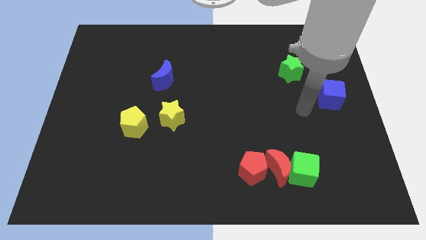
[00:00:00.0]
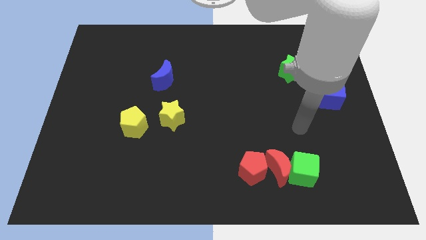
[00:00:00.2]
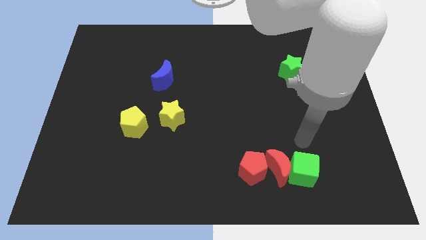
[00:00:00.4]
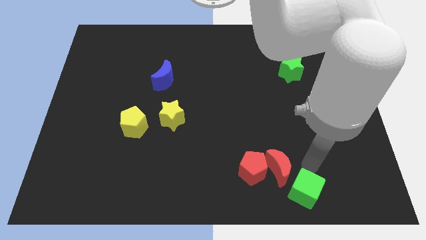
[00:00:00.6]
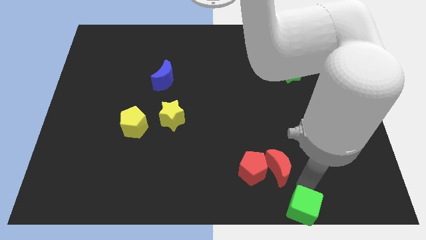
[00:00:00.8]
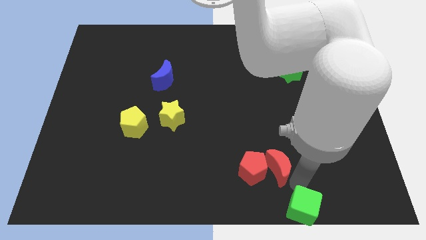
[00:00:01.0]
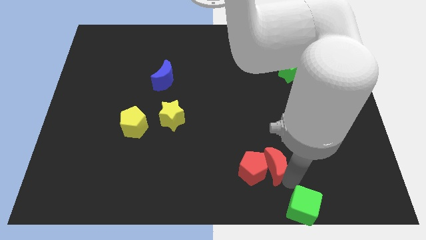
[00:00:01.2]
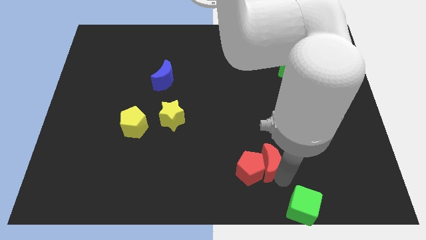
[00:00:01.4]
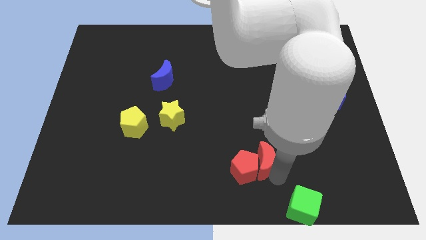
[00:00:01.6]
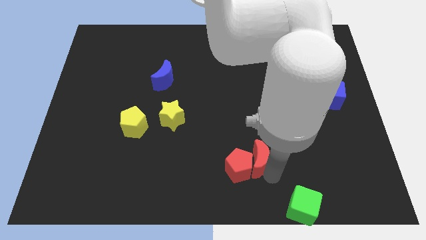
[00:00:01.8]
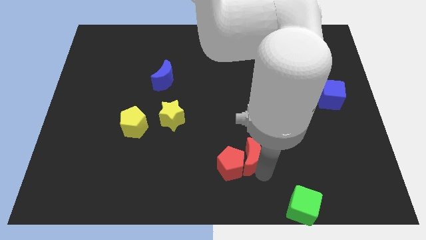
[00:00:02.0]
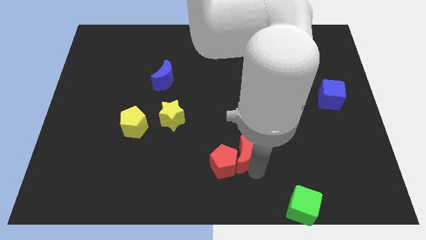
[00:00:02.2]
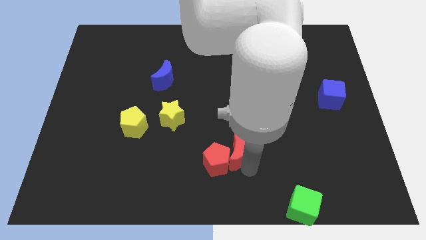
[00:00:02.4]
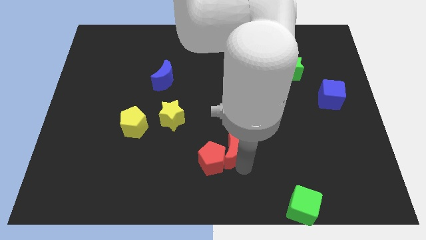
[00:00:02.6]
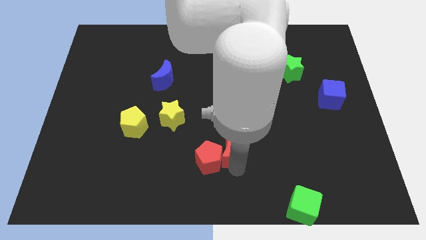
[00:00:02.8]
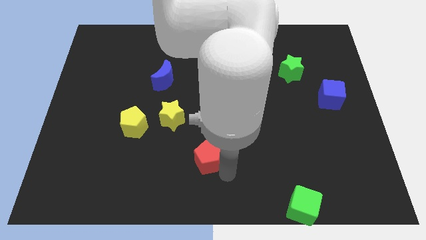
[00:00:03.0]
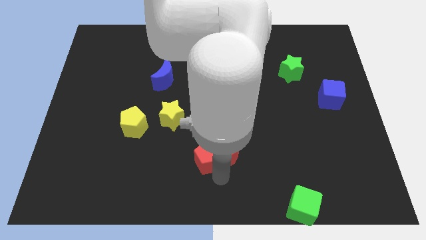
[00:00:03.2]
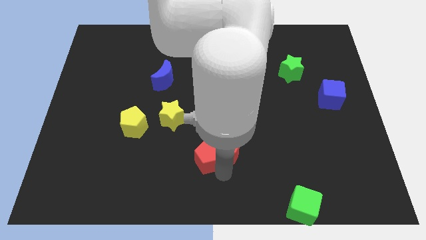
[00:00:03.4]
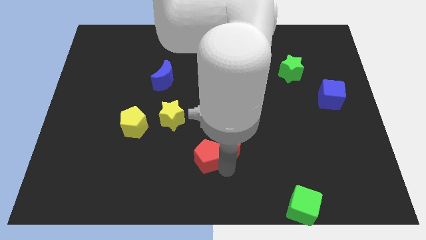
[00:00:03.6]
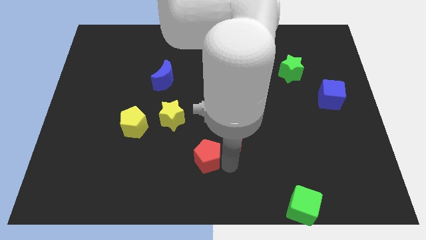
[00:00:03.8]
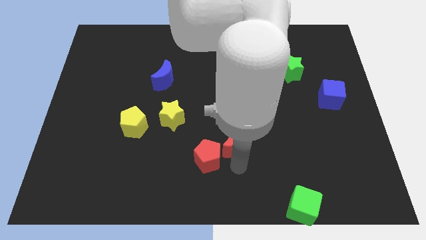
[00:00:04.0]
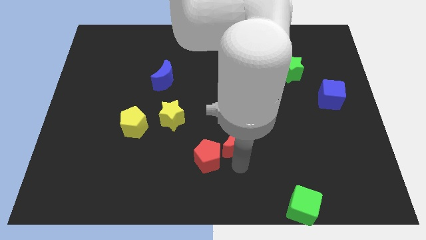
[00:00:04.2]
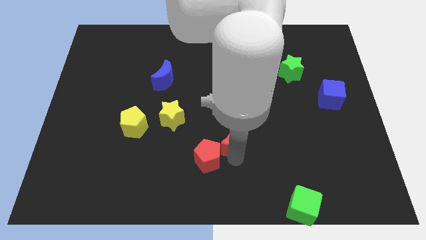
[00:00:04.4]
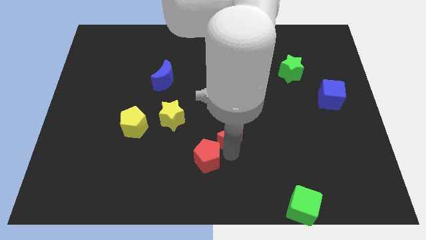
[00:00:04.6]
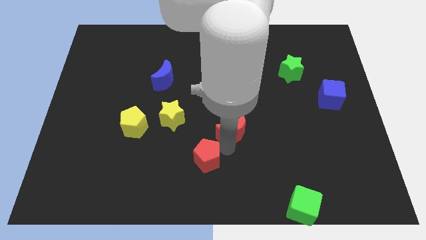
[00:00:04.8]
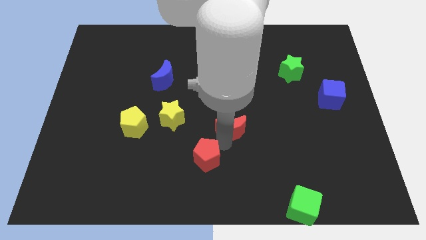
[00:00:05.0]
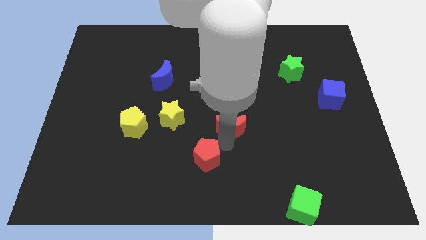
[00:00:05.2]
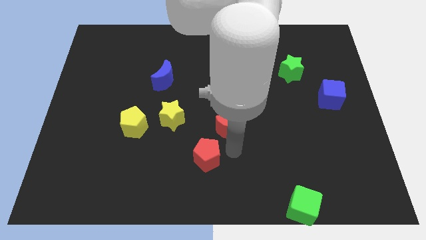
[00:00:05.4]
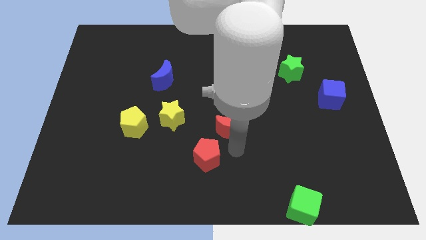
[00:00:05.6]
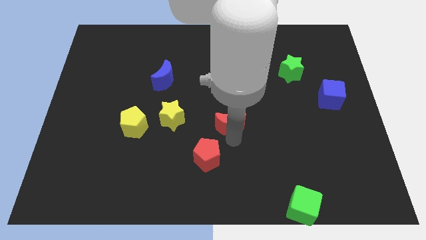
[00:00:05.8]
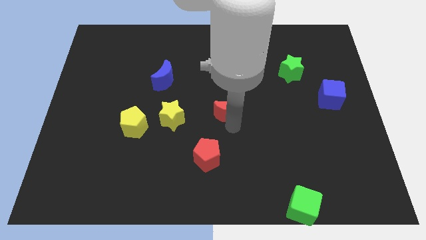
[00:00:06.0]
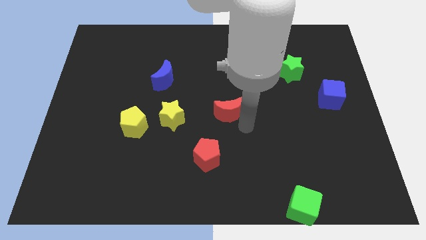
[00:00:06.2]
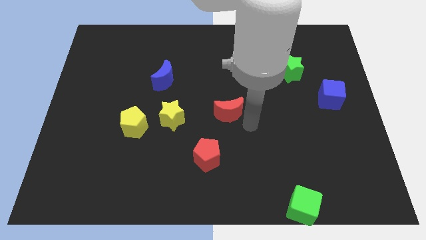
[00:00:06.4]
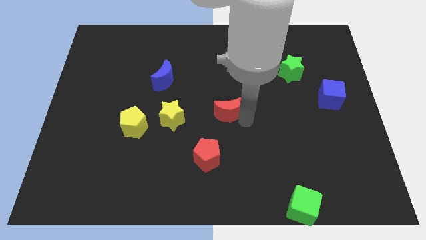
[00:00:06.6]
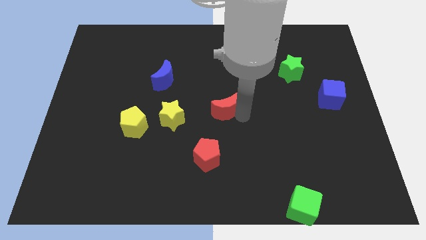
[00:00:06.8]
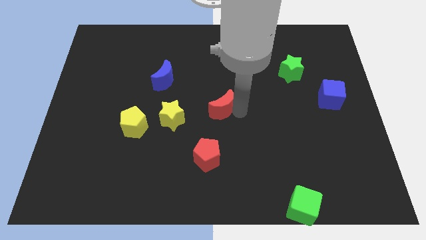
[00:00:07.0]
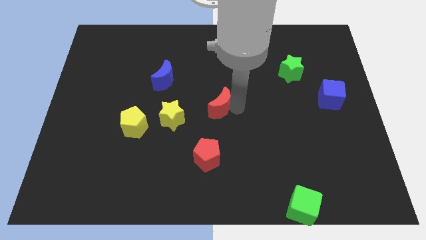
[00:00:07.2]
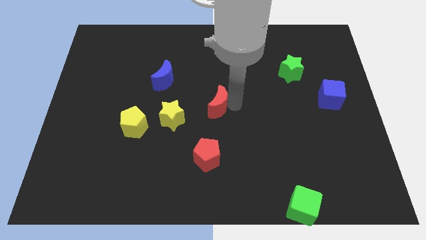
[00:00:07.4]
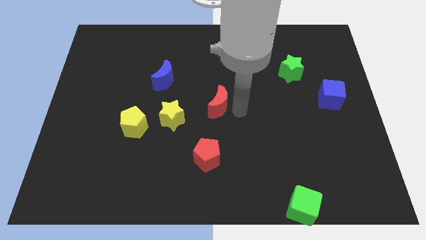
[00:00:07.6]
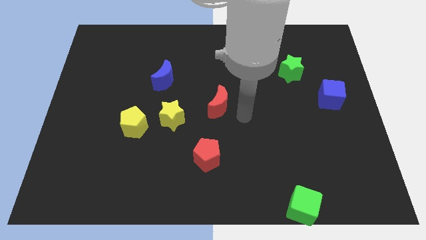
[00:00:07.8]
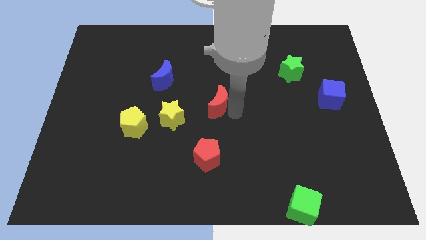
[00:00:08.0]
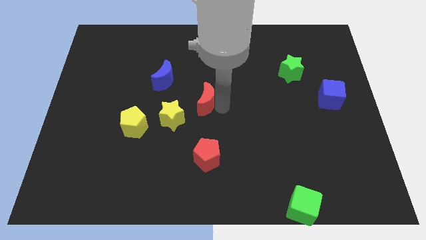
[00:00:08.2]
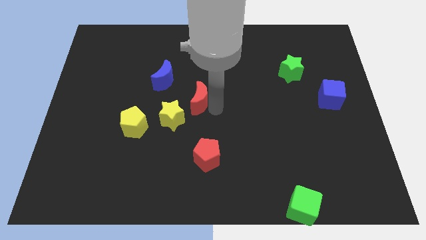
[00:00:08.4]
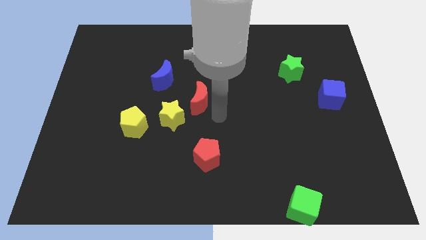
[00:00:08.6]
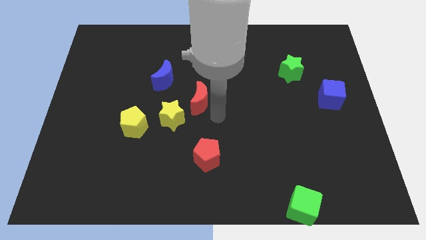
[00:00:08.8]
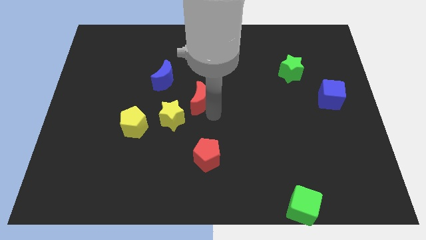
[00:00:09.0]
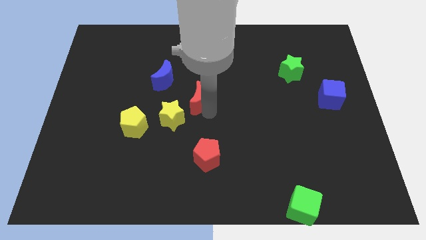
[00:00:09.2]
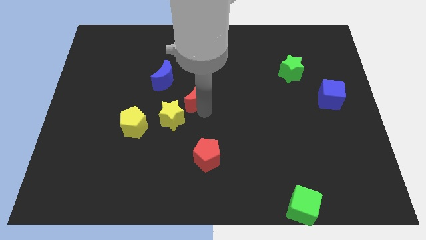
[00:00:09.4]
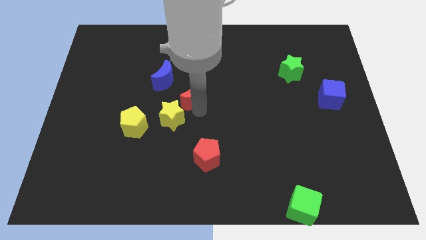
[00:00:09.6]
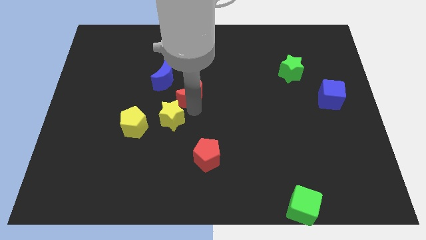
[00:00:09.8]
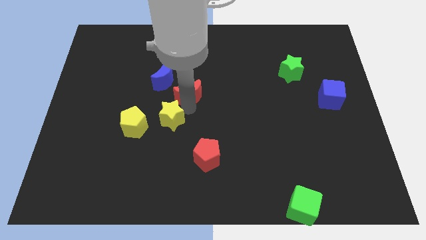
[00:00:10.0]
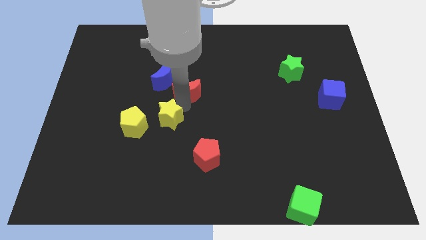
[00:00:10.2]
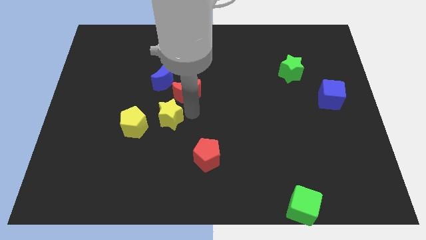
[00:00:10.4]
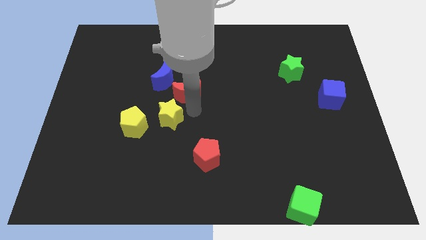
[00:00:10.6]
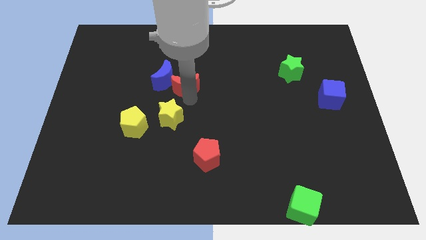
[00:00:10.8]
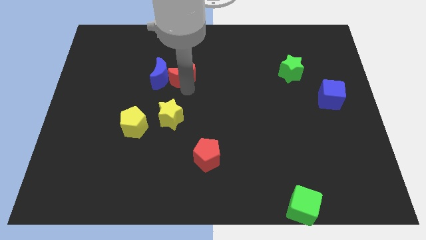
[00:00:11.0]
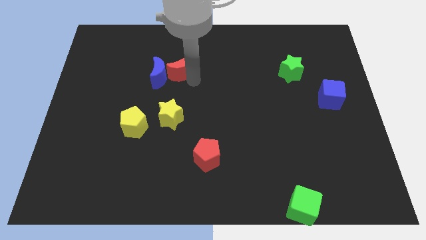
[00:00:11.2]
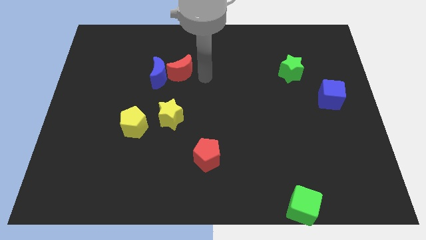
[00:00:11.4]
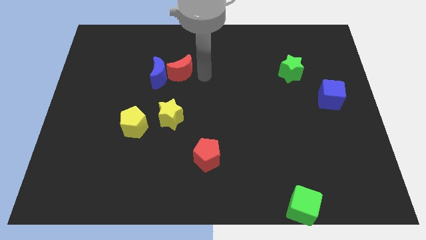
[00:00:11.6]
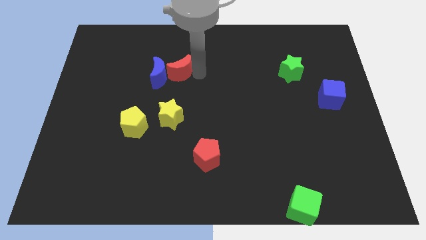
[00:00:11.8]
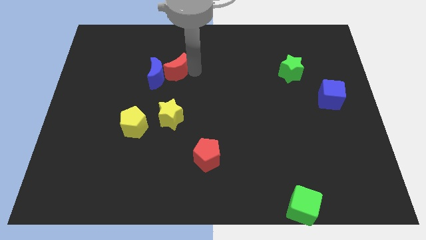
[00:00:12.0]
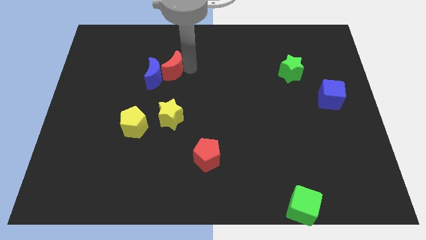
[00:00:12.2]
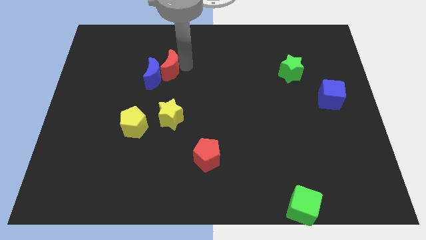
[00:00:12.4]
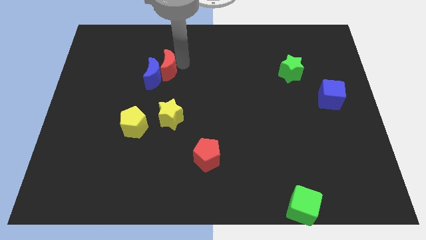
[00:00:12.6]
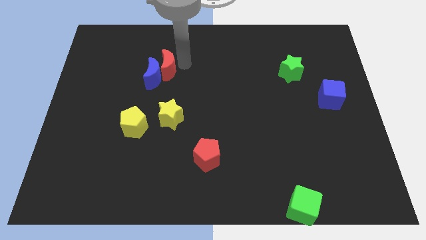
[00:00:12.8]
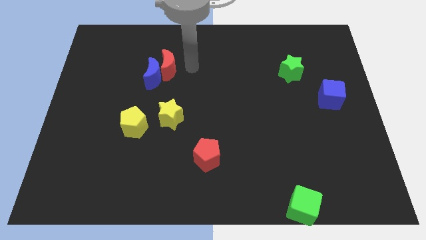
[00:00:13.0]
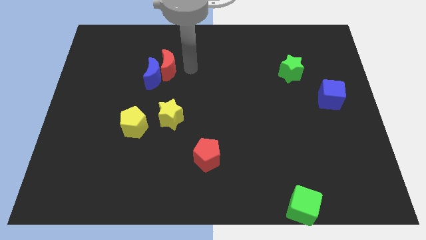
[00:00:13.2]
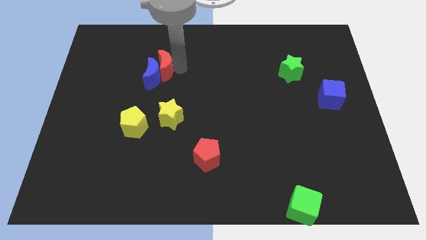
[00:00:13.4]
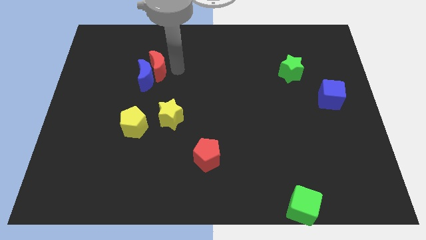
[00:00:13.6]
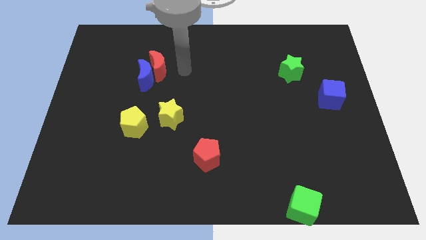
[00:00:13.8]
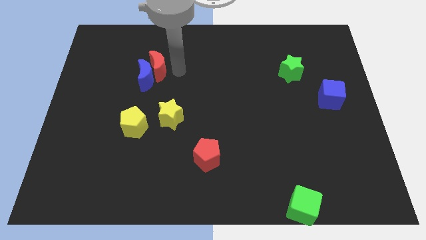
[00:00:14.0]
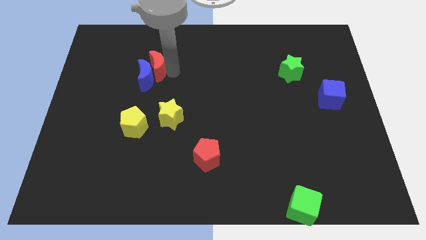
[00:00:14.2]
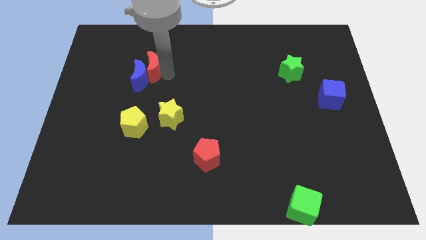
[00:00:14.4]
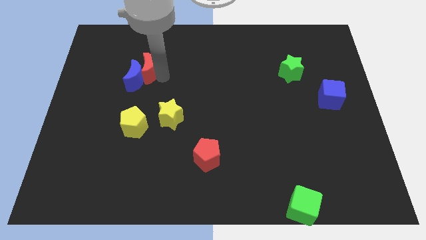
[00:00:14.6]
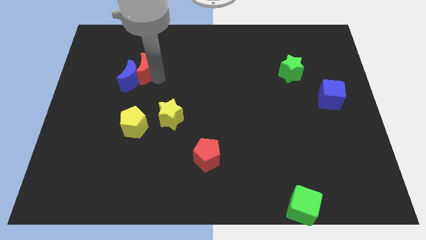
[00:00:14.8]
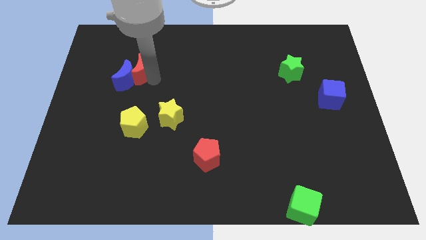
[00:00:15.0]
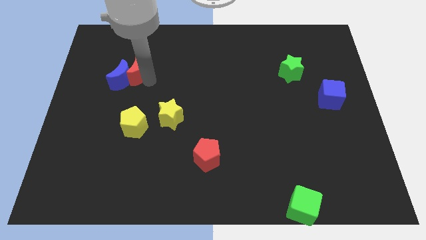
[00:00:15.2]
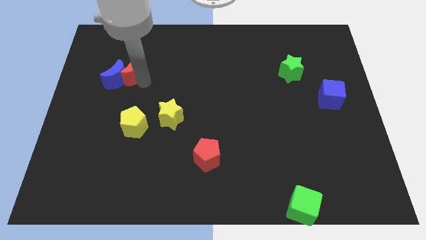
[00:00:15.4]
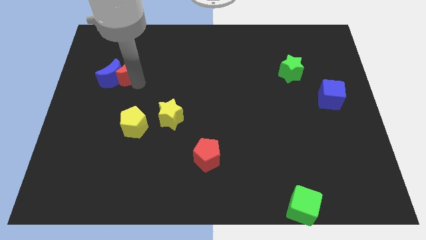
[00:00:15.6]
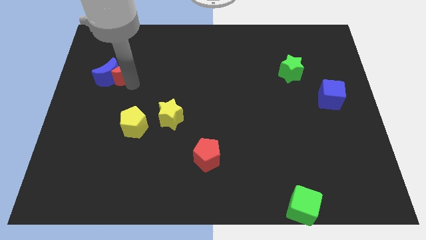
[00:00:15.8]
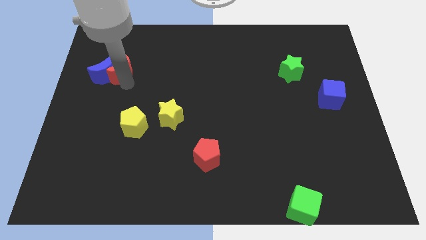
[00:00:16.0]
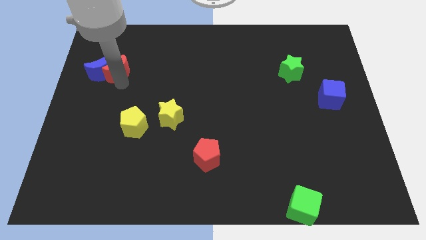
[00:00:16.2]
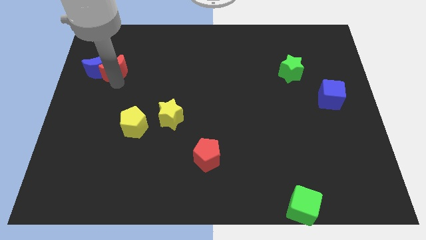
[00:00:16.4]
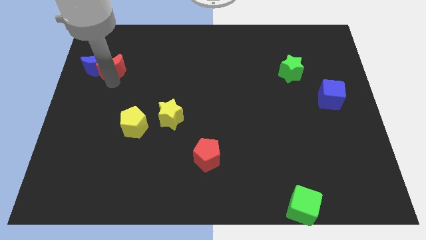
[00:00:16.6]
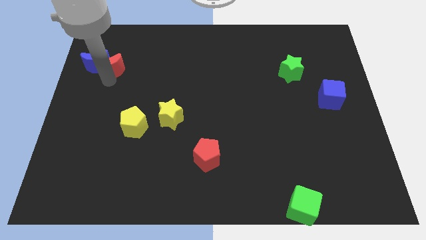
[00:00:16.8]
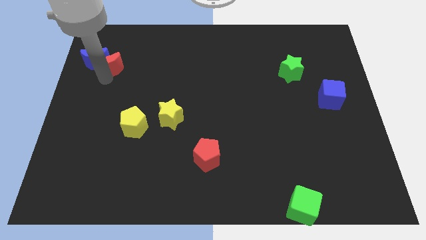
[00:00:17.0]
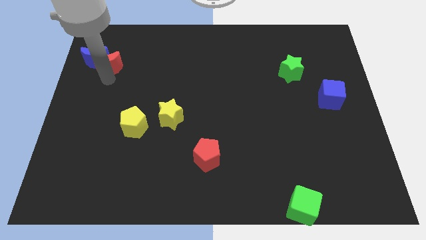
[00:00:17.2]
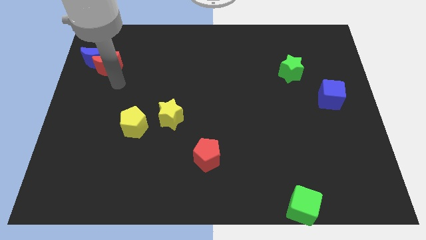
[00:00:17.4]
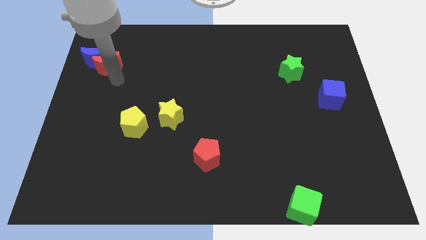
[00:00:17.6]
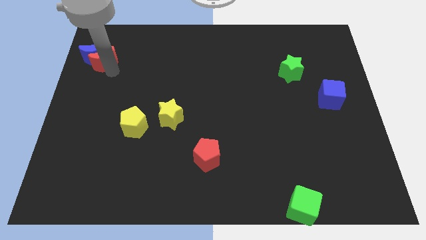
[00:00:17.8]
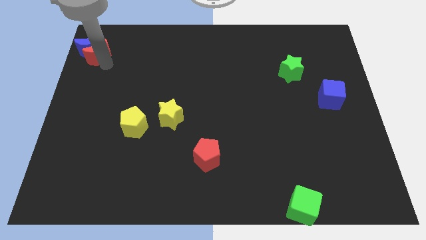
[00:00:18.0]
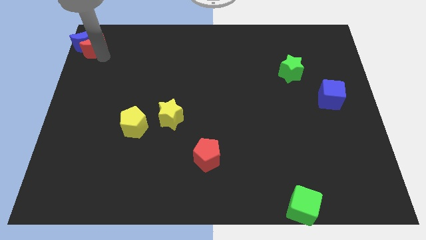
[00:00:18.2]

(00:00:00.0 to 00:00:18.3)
push the red moon to the top left of the board
